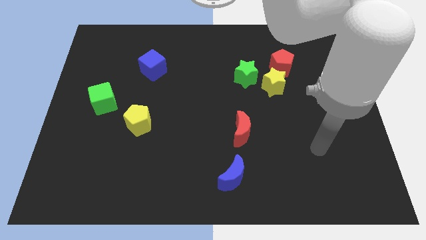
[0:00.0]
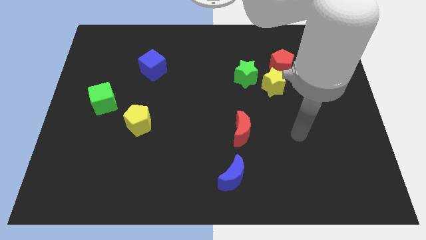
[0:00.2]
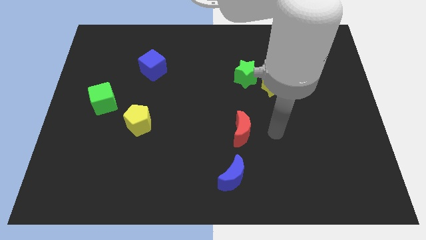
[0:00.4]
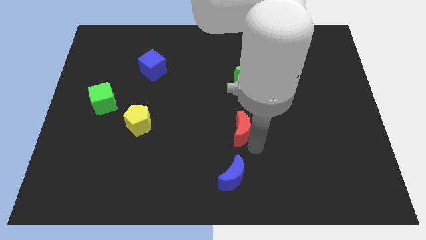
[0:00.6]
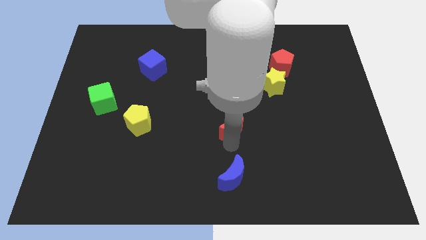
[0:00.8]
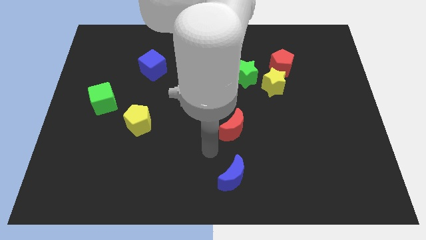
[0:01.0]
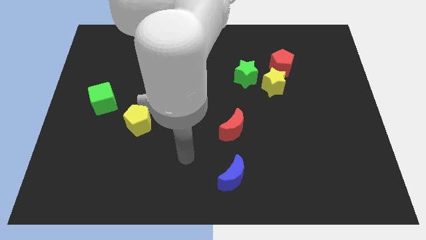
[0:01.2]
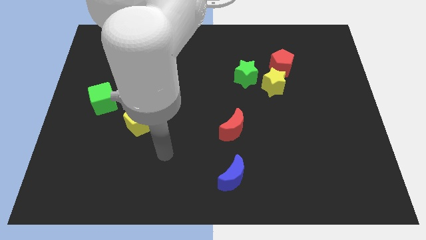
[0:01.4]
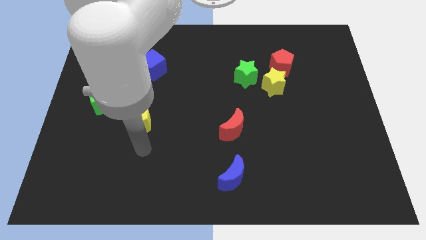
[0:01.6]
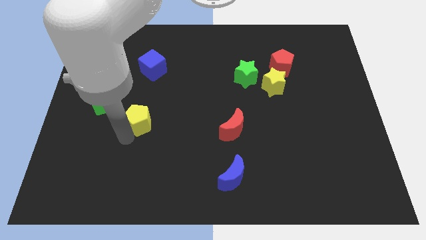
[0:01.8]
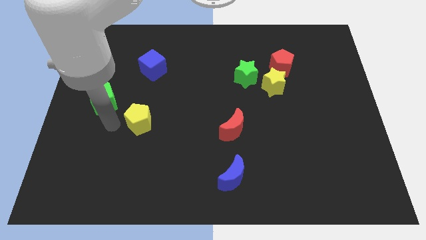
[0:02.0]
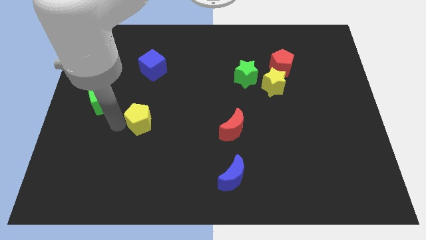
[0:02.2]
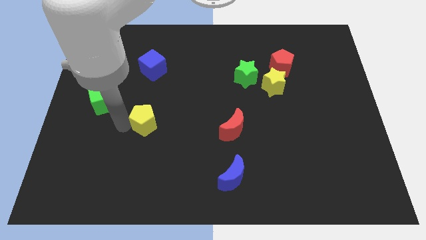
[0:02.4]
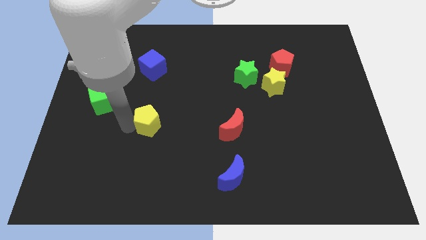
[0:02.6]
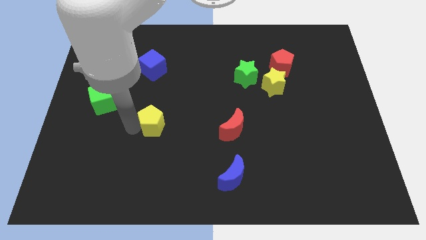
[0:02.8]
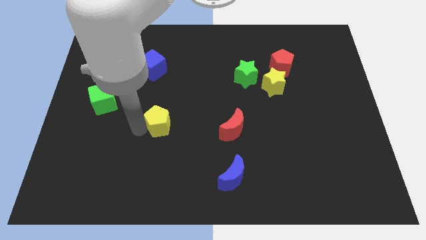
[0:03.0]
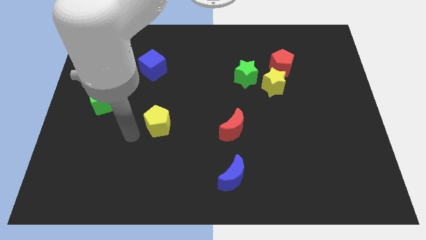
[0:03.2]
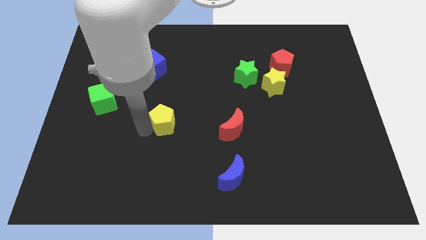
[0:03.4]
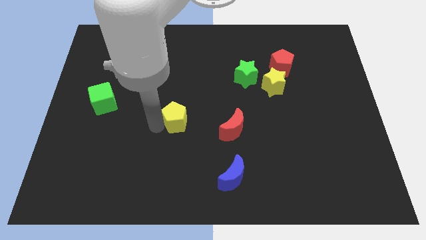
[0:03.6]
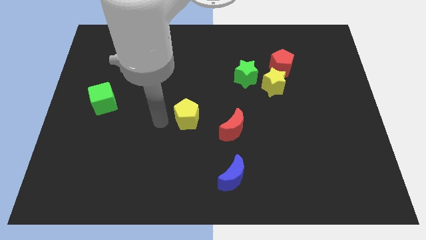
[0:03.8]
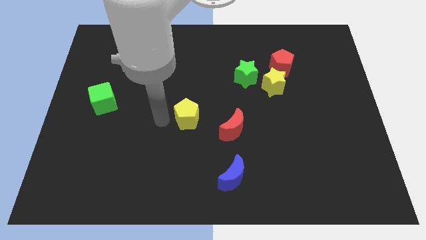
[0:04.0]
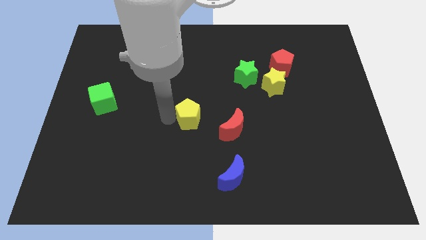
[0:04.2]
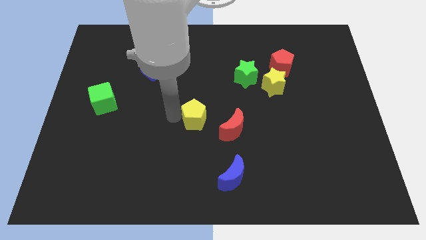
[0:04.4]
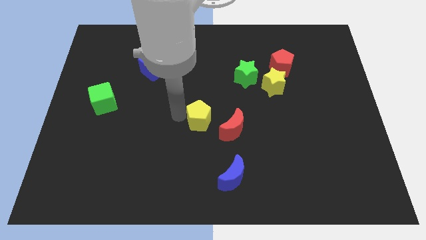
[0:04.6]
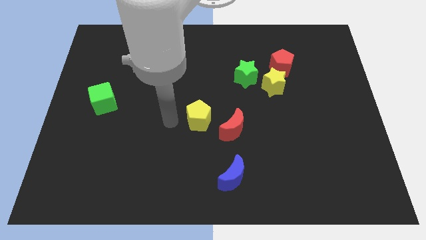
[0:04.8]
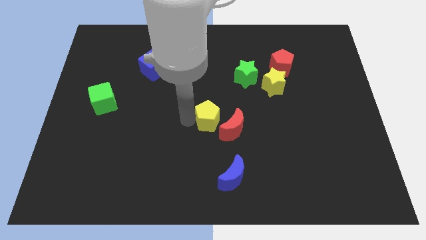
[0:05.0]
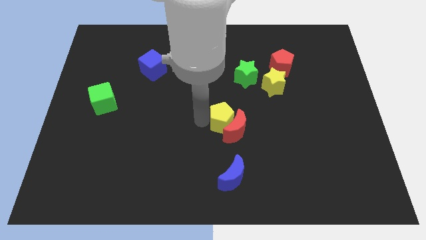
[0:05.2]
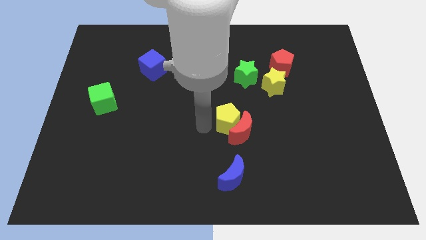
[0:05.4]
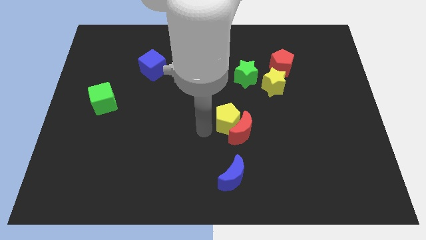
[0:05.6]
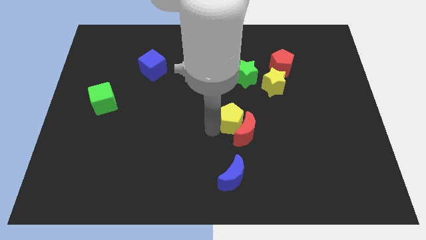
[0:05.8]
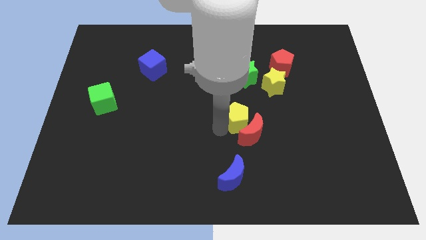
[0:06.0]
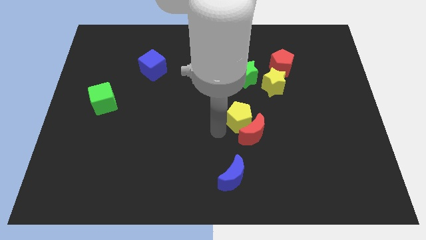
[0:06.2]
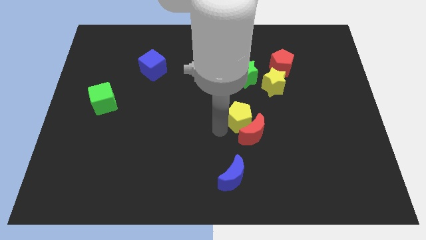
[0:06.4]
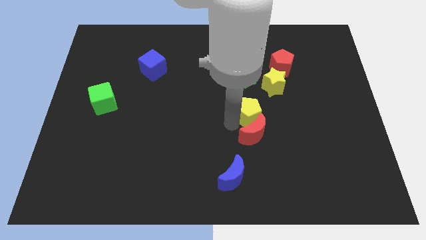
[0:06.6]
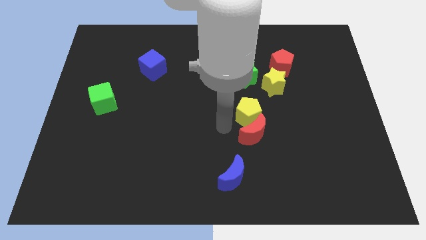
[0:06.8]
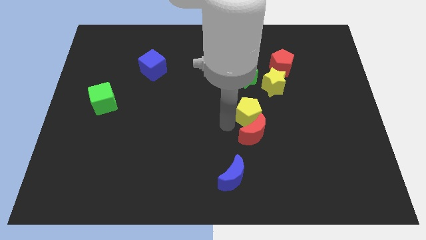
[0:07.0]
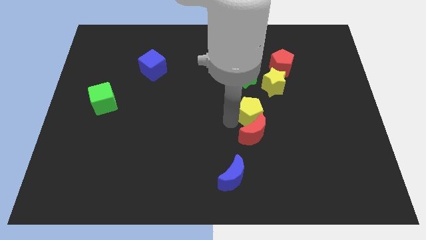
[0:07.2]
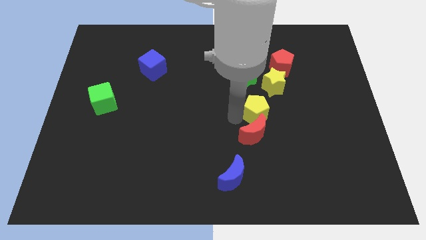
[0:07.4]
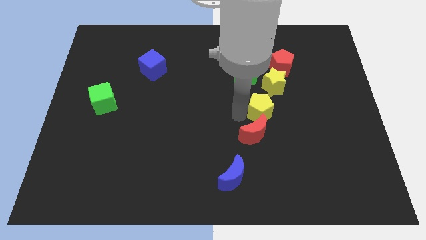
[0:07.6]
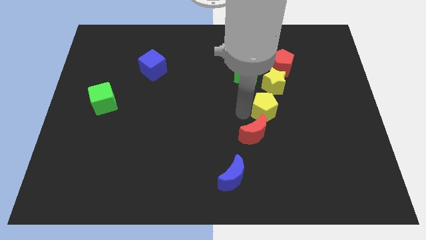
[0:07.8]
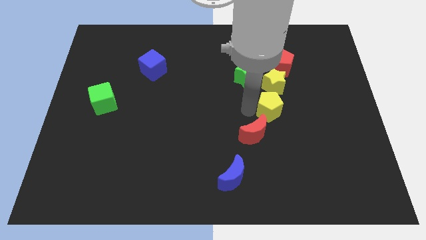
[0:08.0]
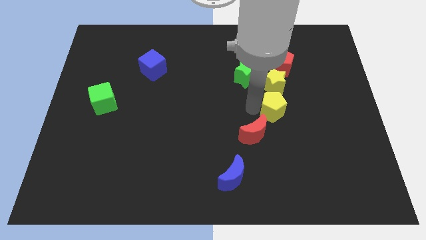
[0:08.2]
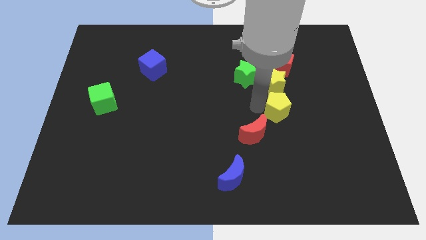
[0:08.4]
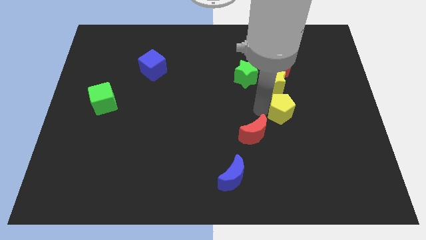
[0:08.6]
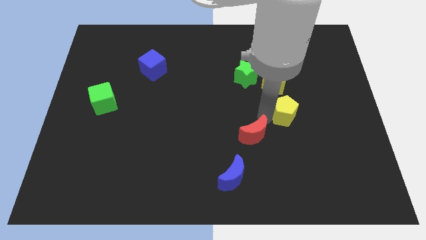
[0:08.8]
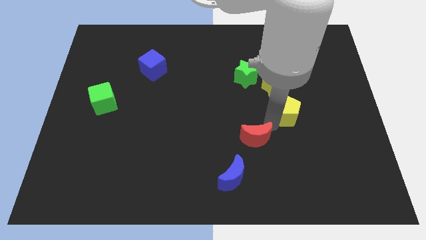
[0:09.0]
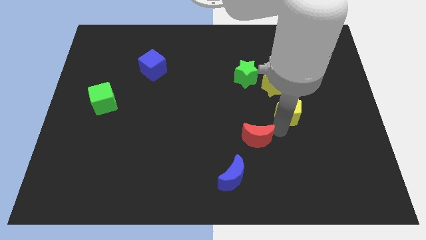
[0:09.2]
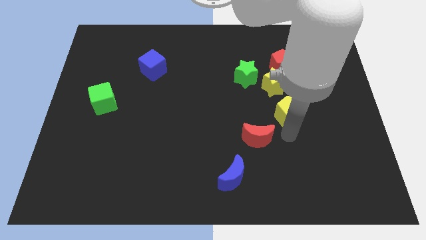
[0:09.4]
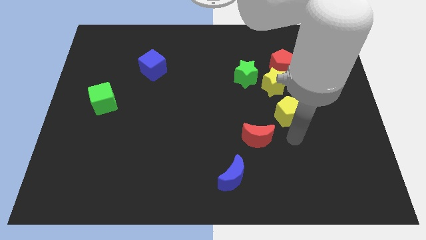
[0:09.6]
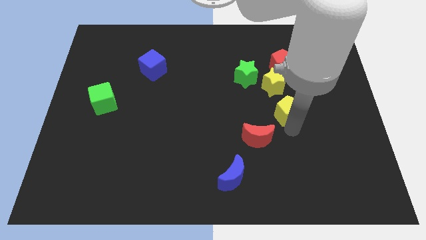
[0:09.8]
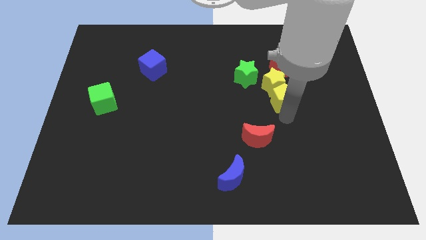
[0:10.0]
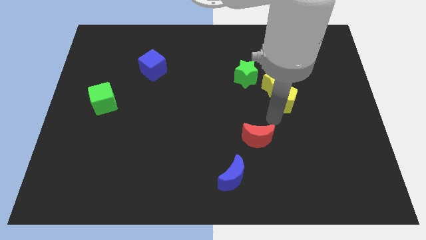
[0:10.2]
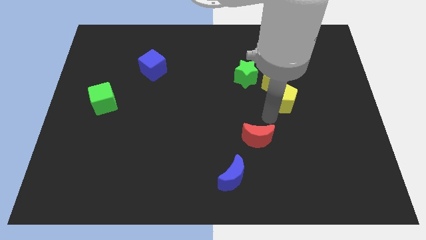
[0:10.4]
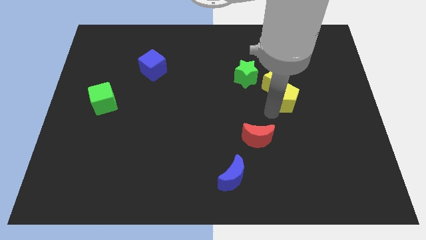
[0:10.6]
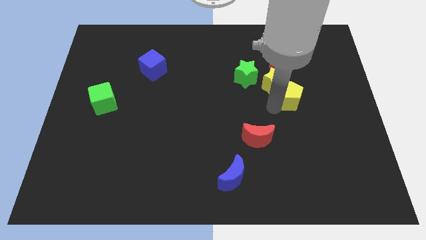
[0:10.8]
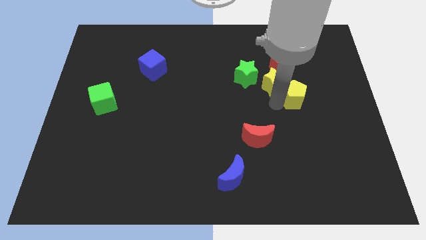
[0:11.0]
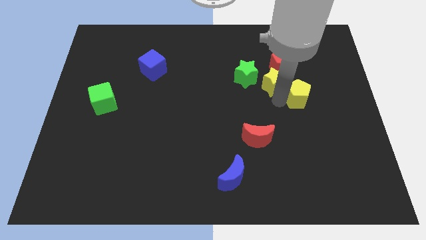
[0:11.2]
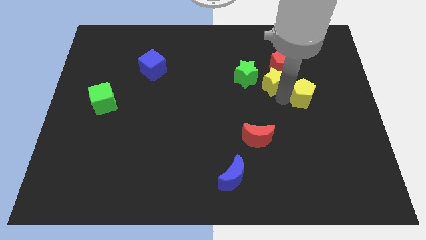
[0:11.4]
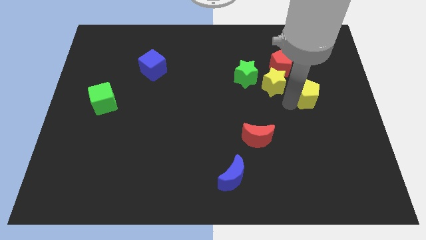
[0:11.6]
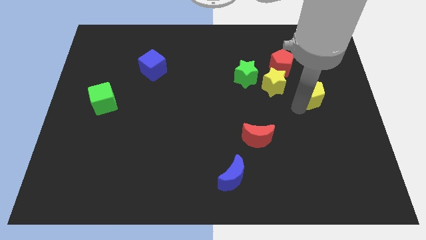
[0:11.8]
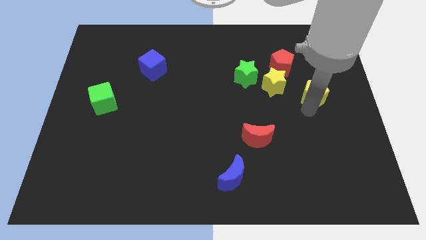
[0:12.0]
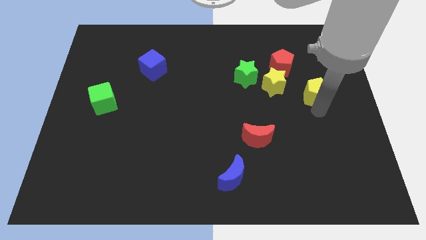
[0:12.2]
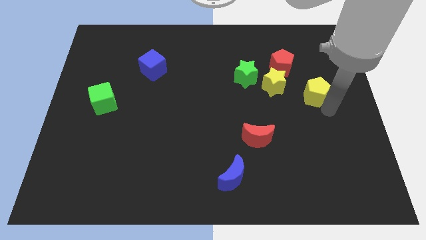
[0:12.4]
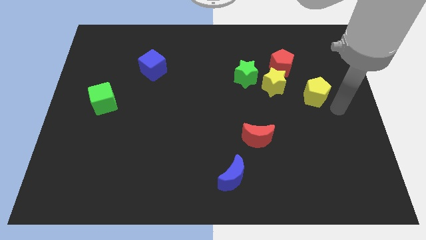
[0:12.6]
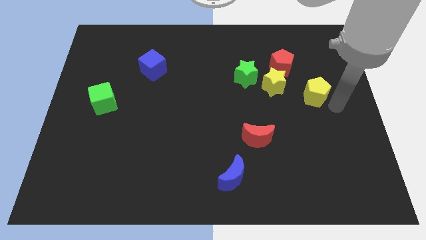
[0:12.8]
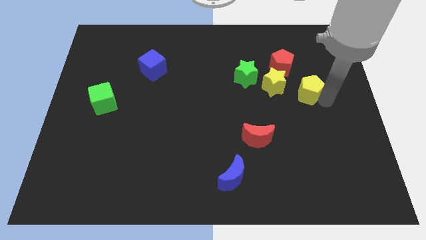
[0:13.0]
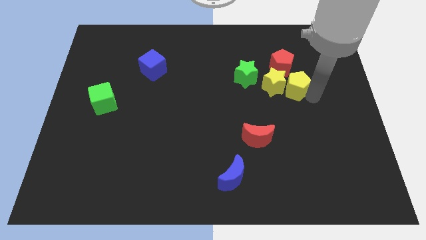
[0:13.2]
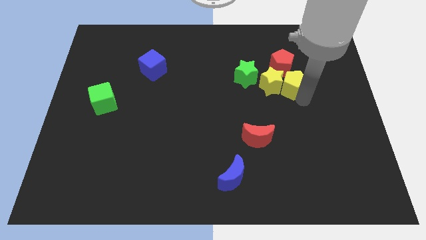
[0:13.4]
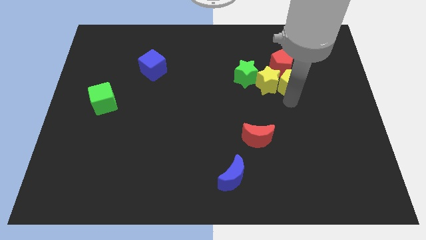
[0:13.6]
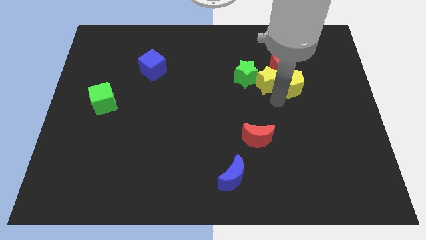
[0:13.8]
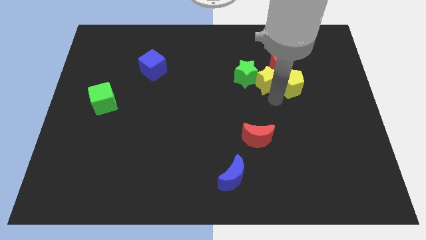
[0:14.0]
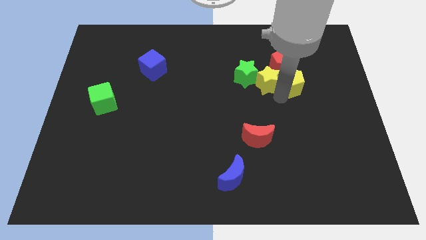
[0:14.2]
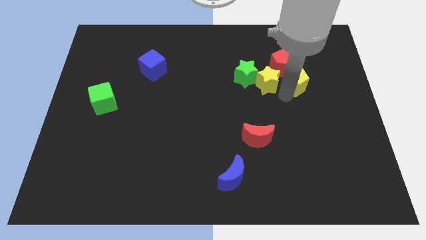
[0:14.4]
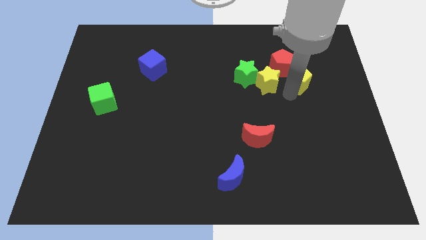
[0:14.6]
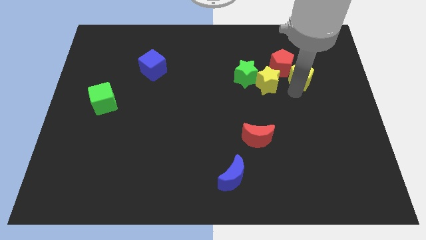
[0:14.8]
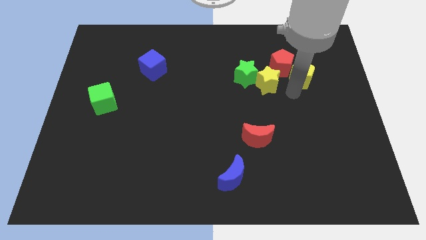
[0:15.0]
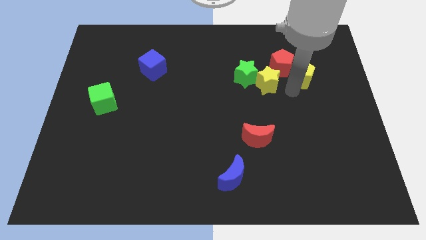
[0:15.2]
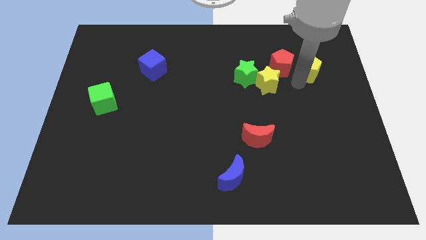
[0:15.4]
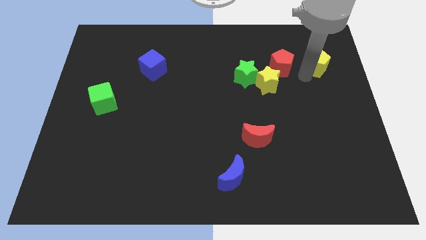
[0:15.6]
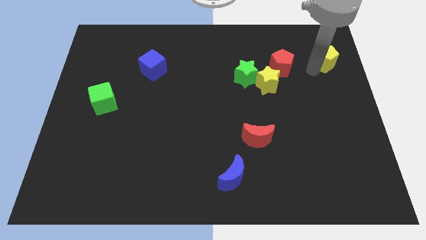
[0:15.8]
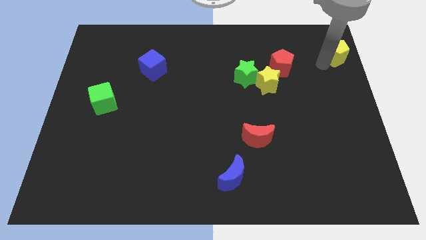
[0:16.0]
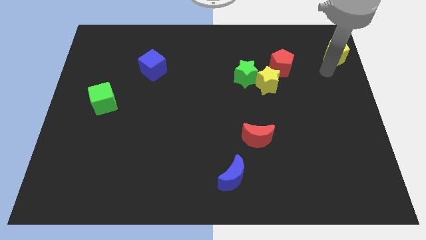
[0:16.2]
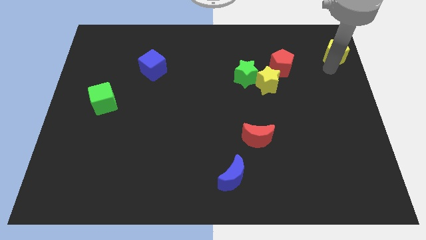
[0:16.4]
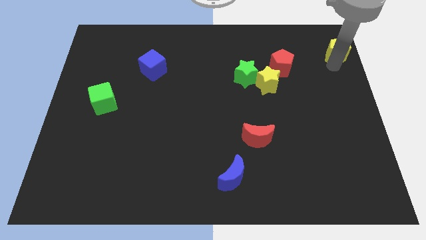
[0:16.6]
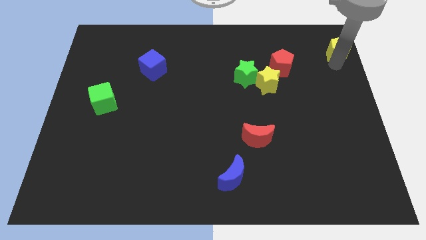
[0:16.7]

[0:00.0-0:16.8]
push the yellow pentagon to the top right
